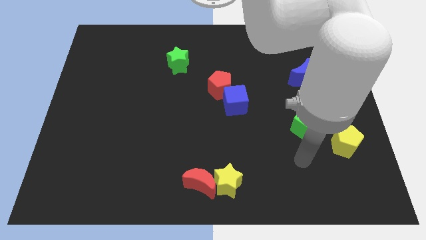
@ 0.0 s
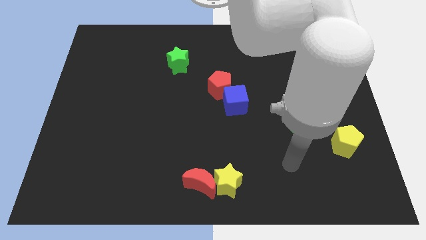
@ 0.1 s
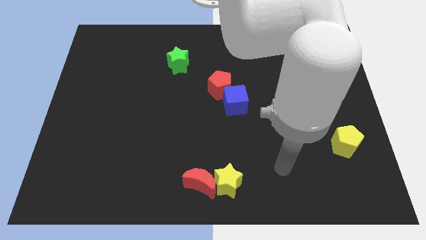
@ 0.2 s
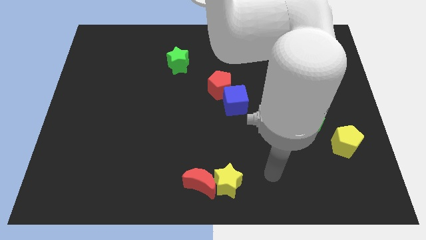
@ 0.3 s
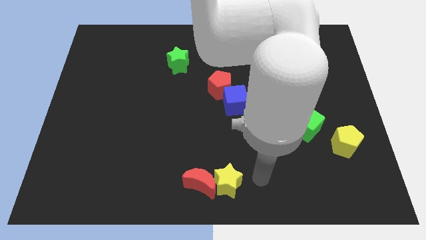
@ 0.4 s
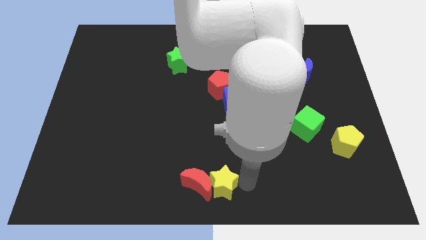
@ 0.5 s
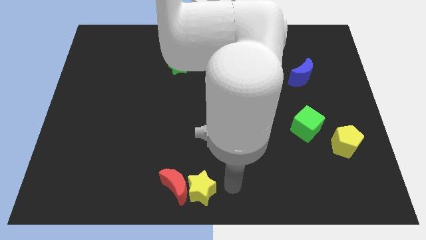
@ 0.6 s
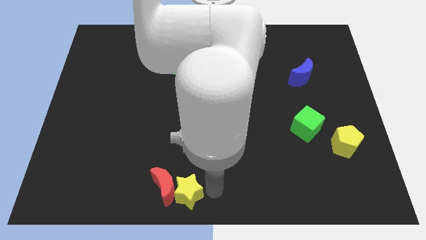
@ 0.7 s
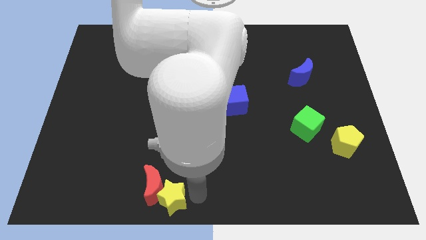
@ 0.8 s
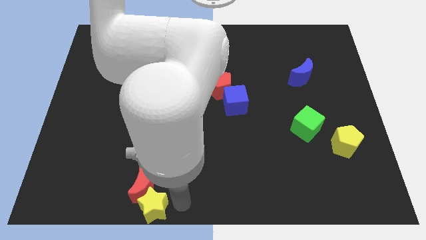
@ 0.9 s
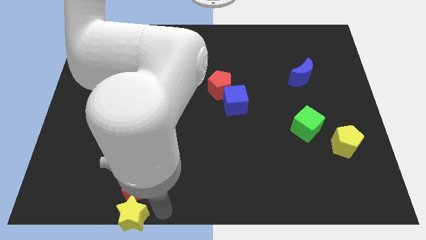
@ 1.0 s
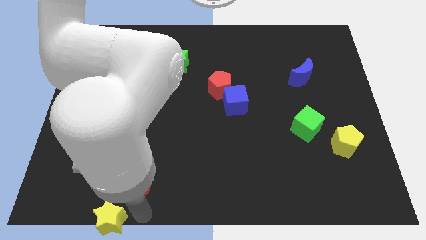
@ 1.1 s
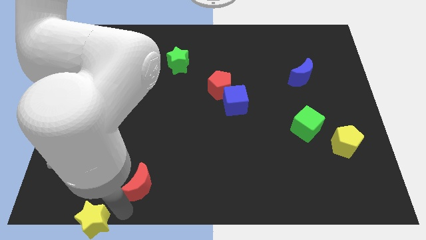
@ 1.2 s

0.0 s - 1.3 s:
move the red moon away from the yellow star

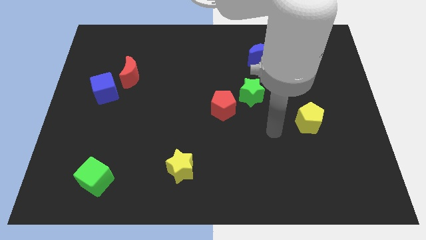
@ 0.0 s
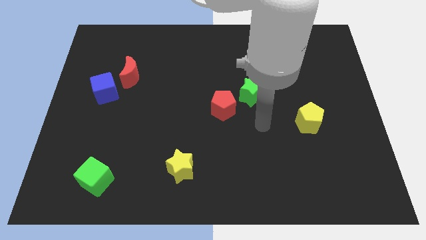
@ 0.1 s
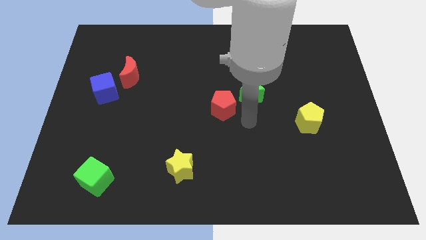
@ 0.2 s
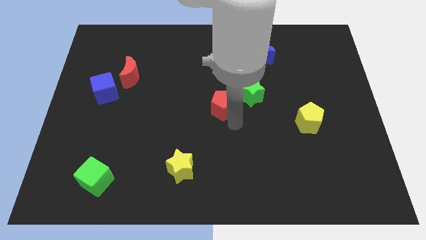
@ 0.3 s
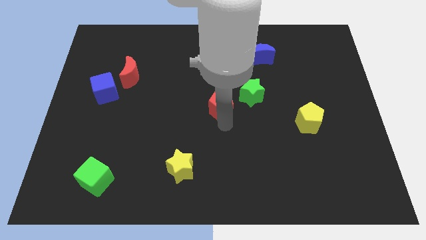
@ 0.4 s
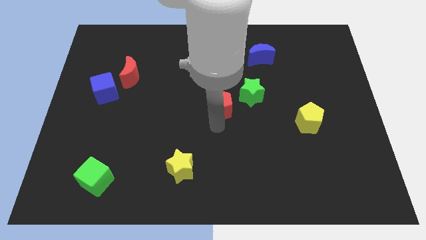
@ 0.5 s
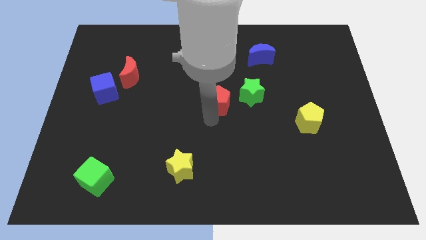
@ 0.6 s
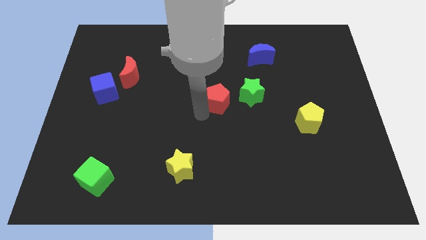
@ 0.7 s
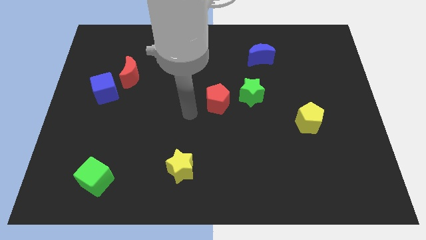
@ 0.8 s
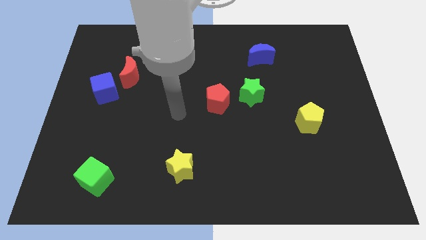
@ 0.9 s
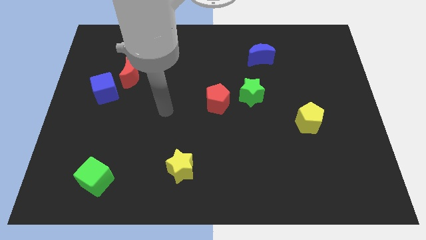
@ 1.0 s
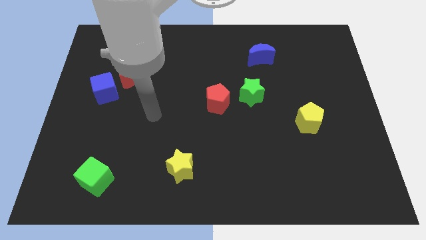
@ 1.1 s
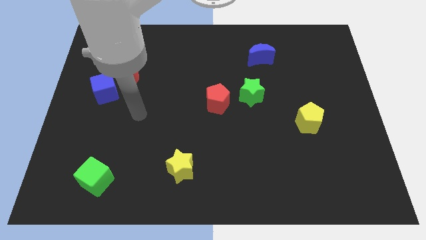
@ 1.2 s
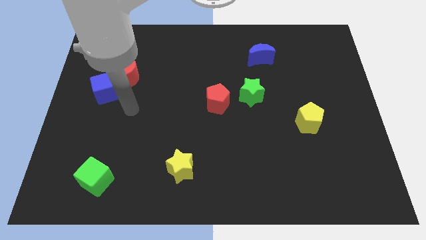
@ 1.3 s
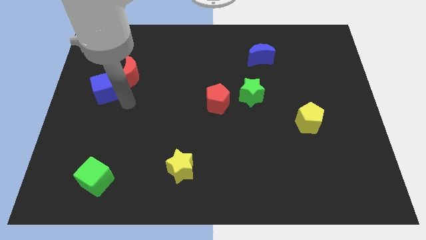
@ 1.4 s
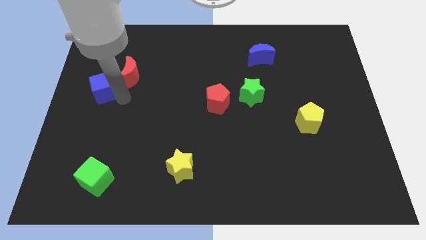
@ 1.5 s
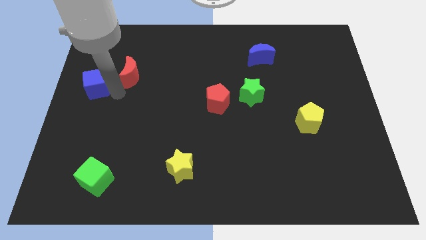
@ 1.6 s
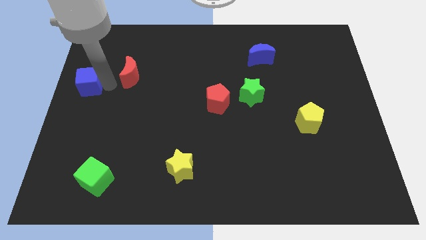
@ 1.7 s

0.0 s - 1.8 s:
pull the red moon apart from the blue cube

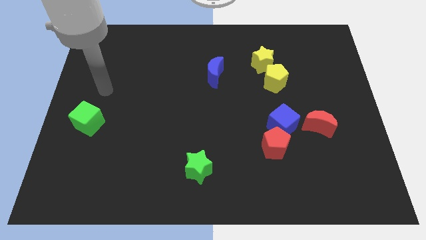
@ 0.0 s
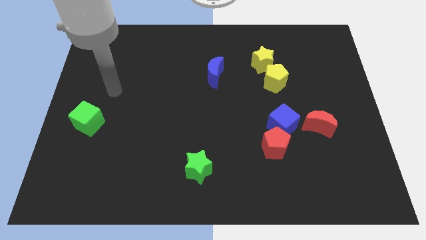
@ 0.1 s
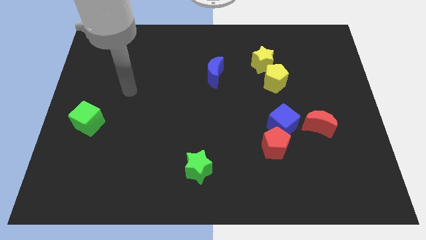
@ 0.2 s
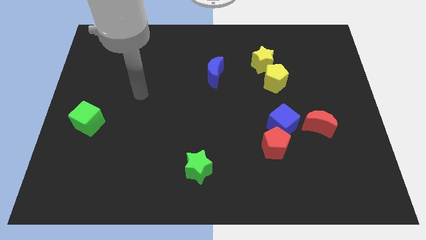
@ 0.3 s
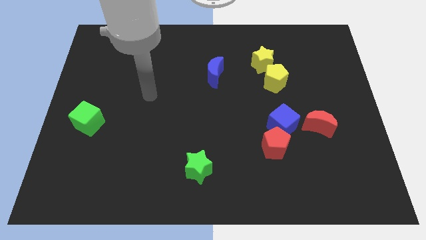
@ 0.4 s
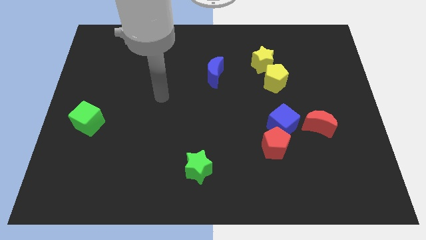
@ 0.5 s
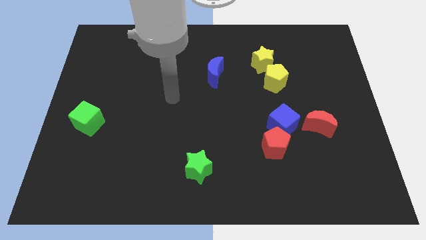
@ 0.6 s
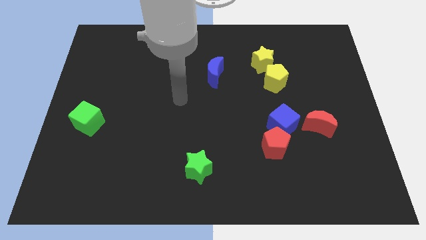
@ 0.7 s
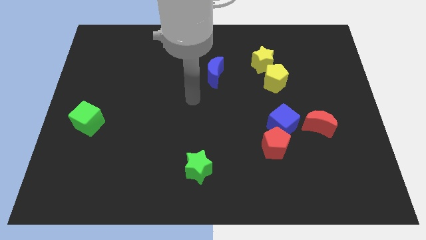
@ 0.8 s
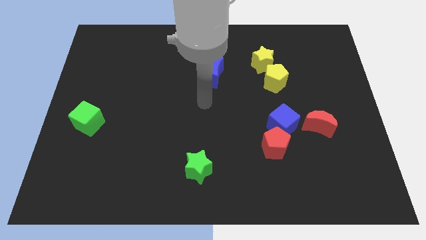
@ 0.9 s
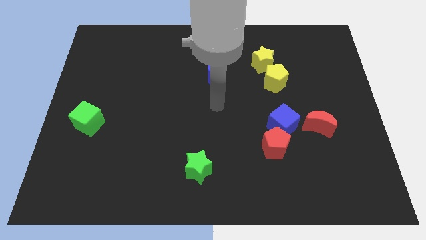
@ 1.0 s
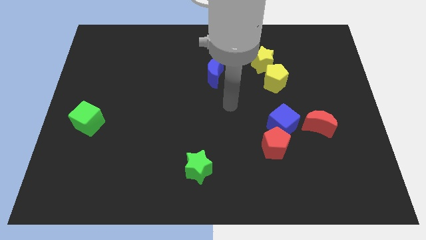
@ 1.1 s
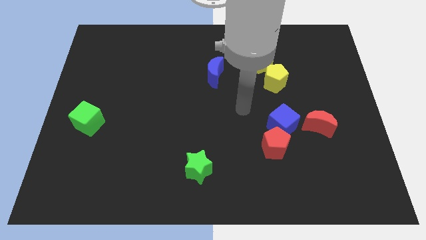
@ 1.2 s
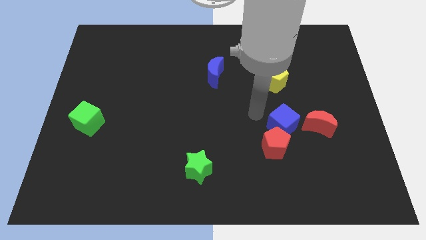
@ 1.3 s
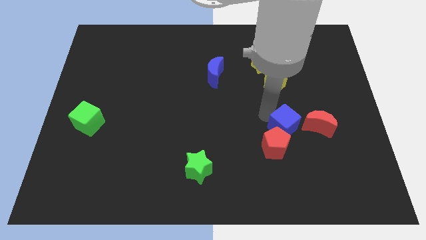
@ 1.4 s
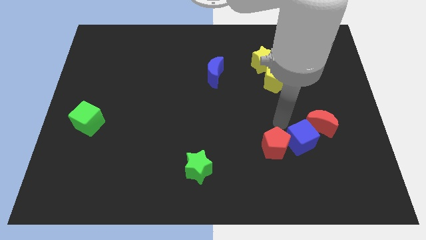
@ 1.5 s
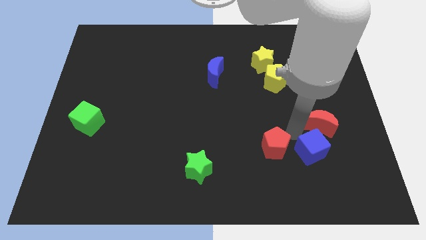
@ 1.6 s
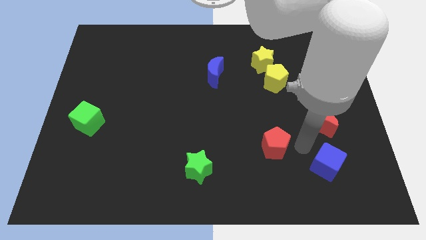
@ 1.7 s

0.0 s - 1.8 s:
move the red pentagon away from the blue cube

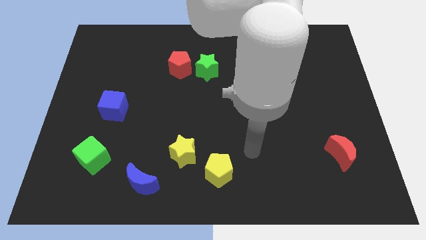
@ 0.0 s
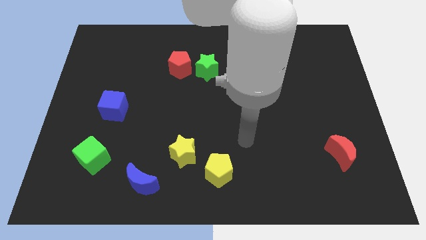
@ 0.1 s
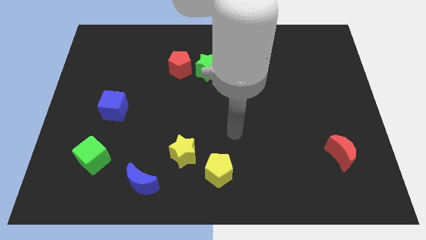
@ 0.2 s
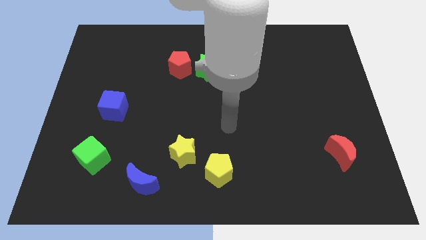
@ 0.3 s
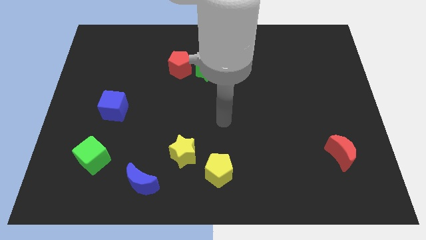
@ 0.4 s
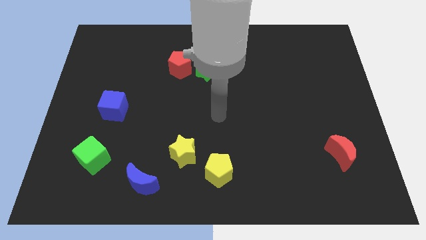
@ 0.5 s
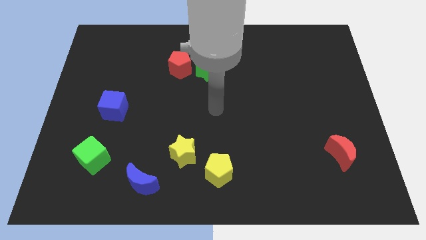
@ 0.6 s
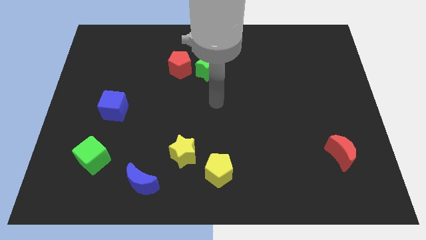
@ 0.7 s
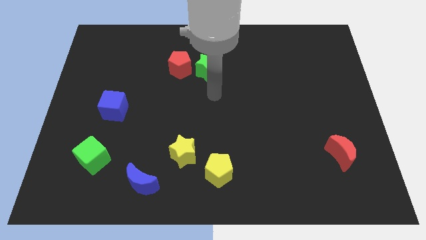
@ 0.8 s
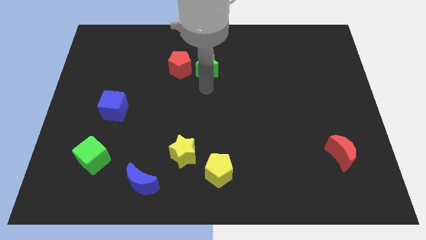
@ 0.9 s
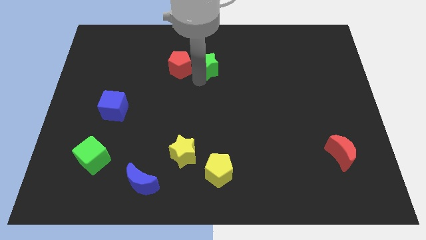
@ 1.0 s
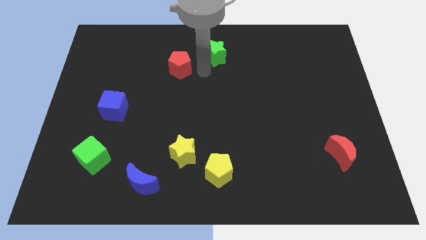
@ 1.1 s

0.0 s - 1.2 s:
pull the red pentagon apart from the green star

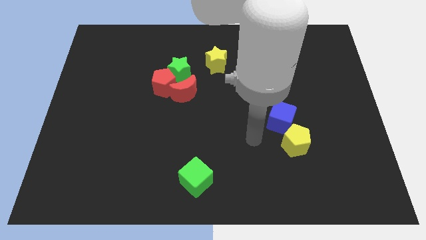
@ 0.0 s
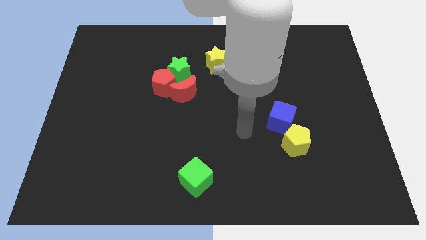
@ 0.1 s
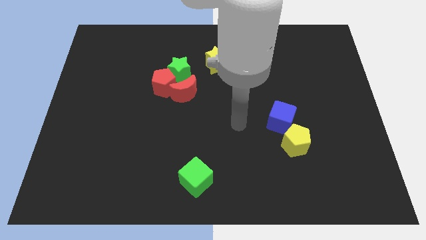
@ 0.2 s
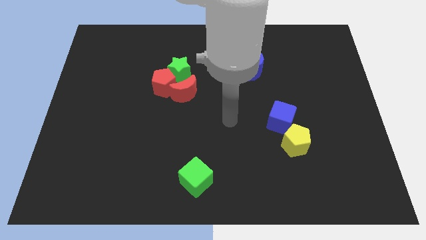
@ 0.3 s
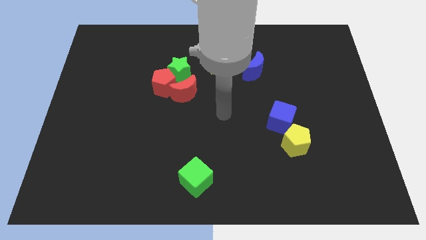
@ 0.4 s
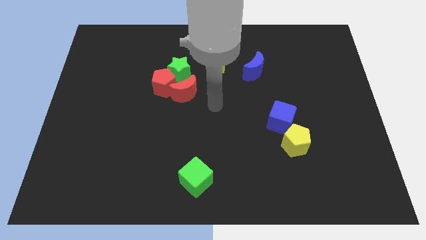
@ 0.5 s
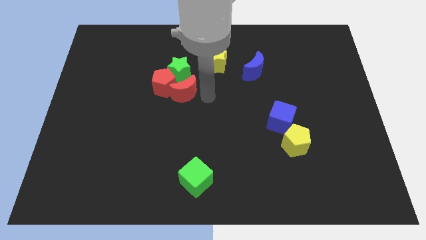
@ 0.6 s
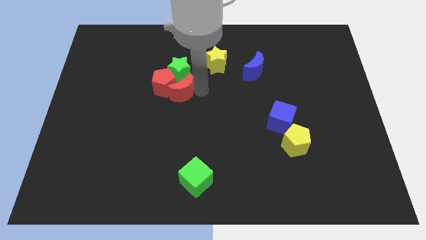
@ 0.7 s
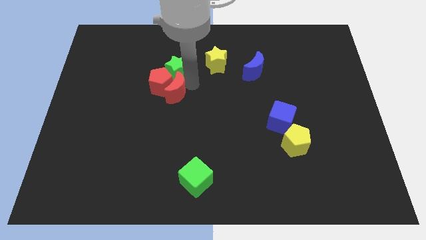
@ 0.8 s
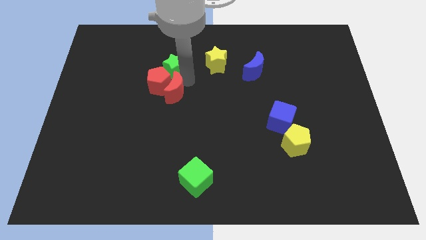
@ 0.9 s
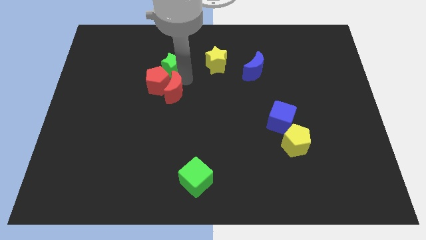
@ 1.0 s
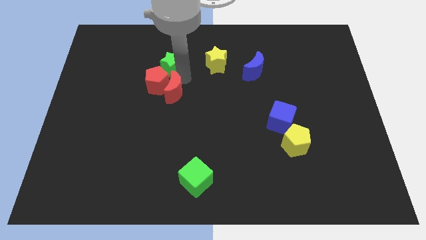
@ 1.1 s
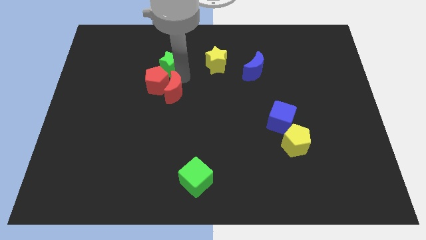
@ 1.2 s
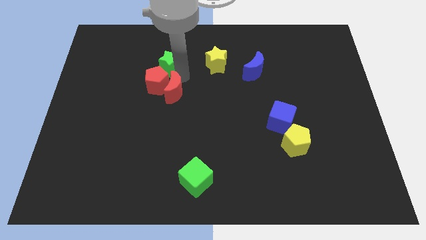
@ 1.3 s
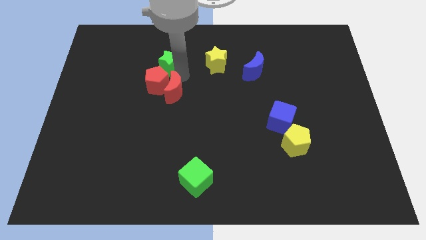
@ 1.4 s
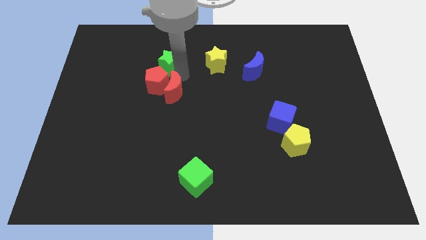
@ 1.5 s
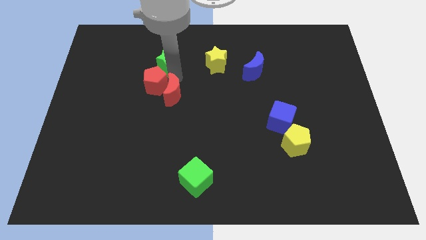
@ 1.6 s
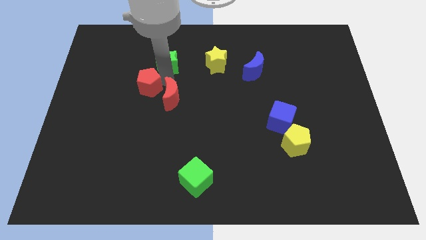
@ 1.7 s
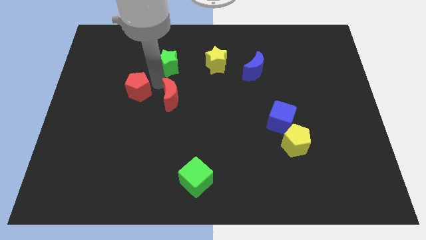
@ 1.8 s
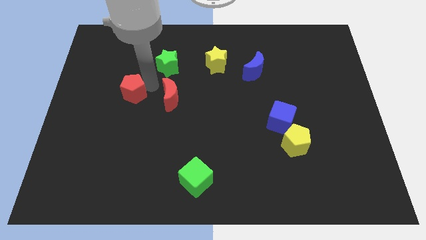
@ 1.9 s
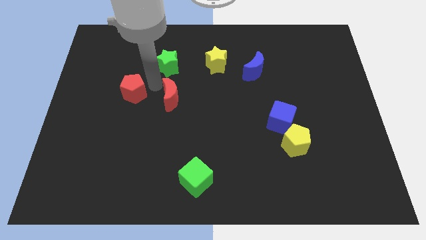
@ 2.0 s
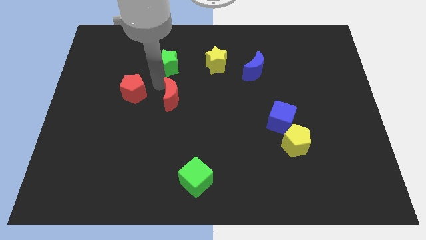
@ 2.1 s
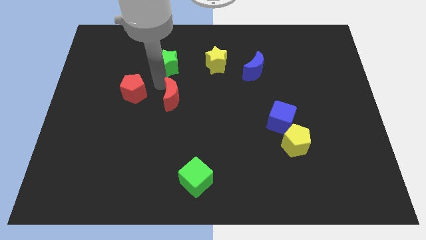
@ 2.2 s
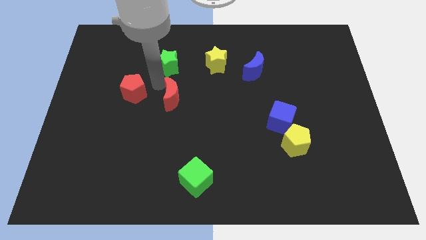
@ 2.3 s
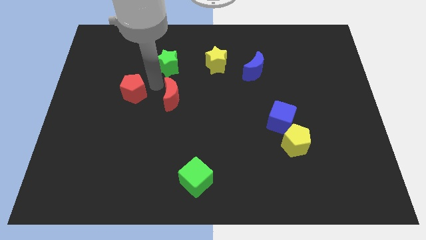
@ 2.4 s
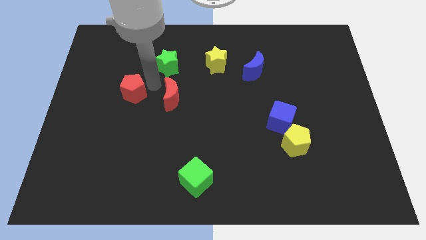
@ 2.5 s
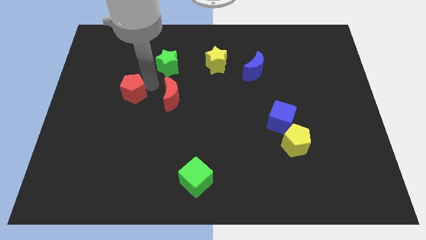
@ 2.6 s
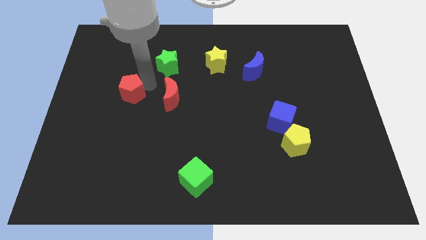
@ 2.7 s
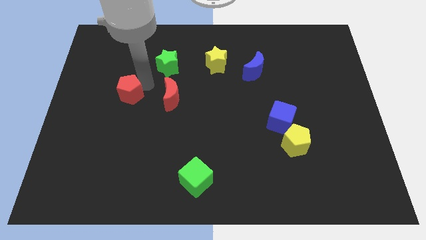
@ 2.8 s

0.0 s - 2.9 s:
move the red pentagon away from the green star and red moon

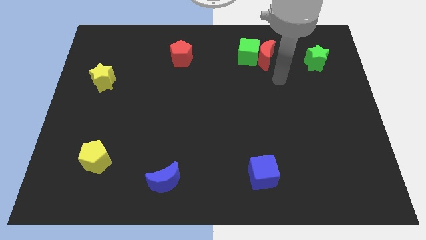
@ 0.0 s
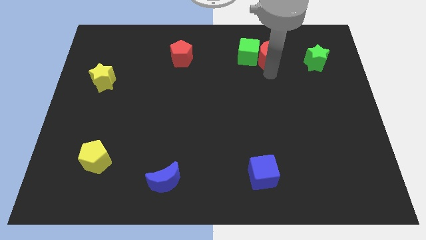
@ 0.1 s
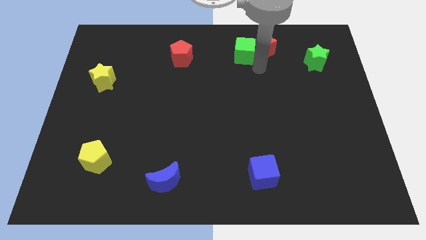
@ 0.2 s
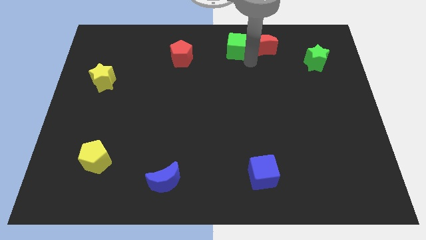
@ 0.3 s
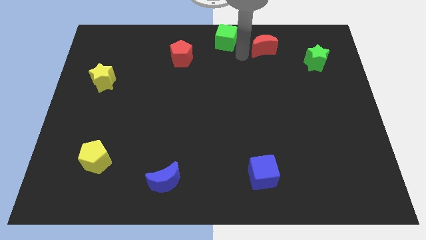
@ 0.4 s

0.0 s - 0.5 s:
separate the red moon from the green cube
